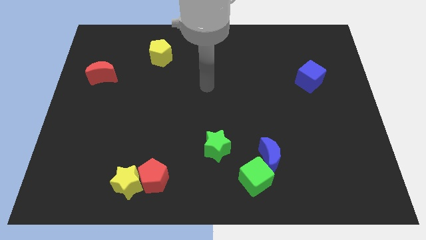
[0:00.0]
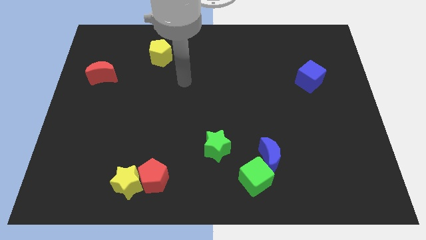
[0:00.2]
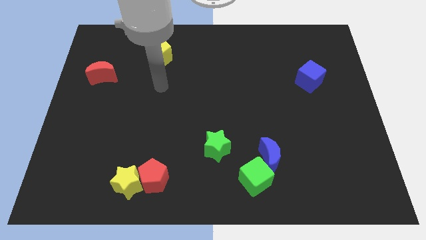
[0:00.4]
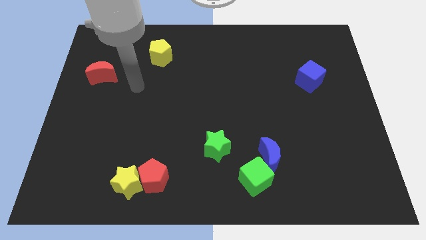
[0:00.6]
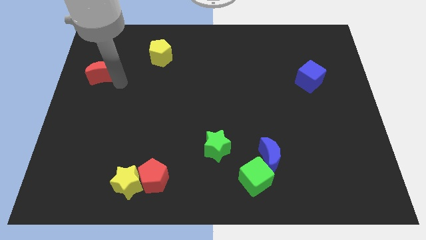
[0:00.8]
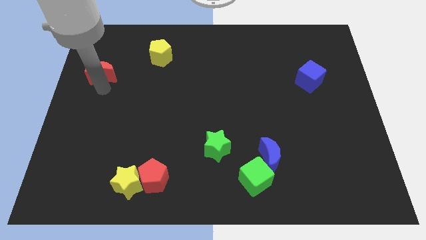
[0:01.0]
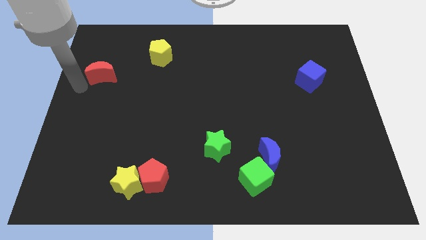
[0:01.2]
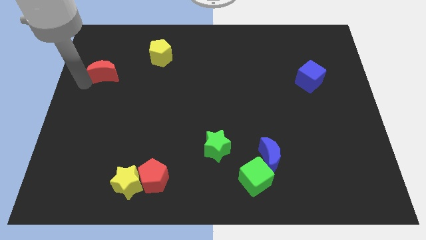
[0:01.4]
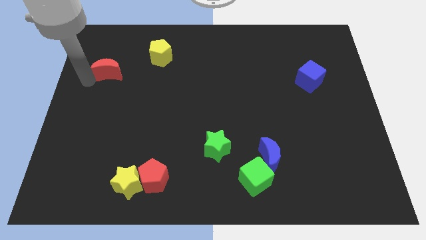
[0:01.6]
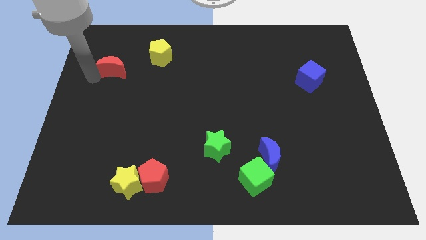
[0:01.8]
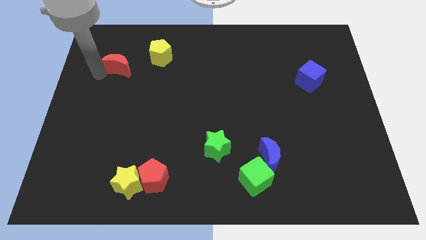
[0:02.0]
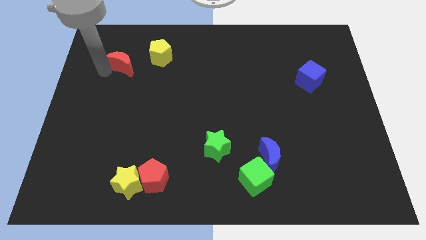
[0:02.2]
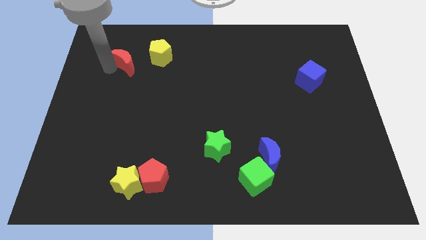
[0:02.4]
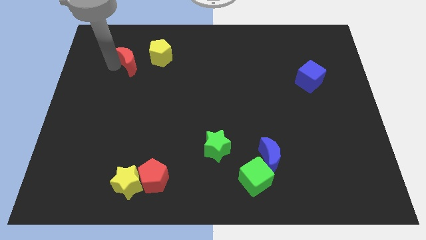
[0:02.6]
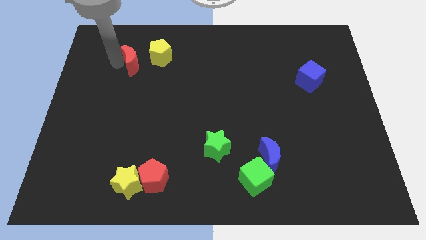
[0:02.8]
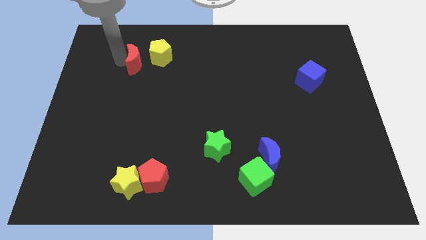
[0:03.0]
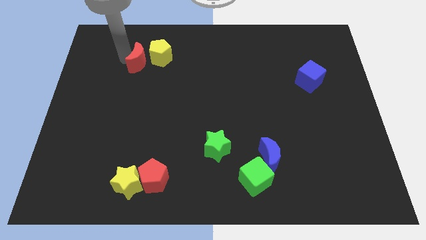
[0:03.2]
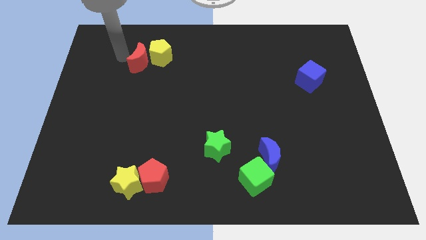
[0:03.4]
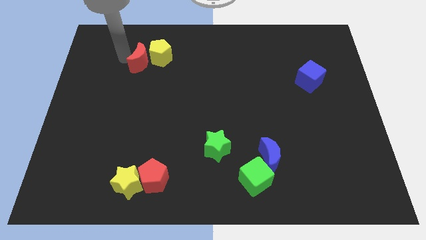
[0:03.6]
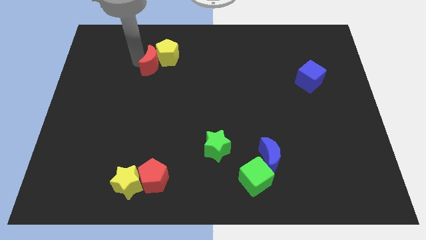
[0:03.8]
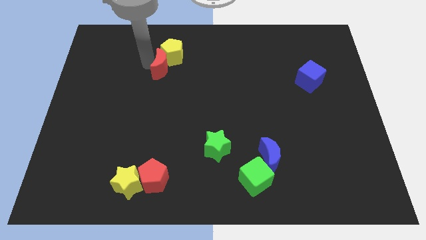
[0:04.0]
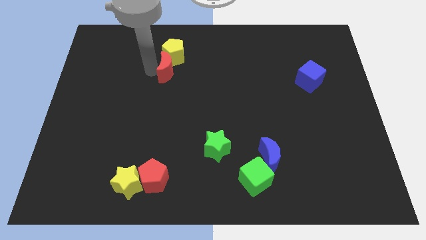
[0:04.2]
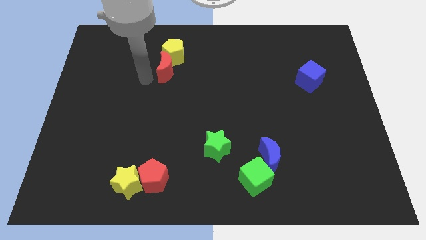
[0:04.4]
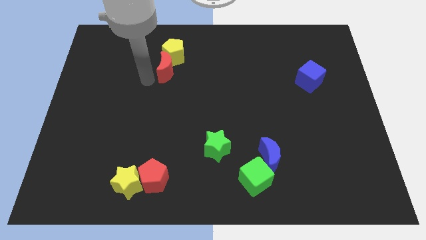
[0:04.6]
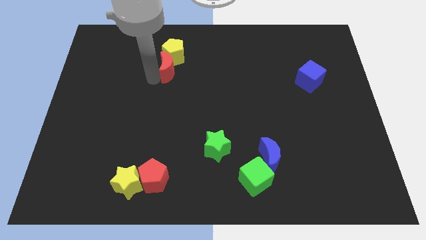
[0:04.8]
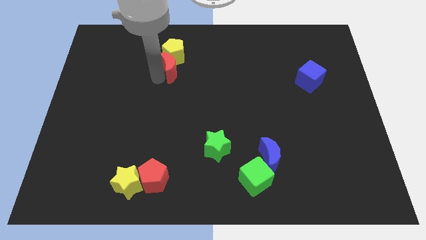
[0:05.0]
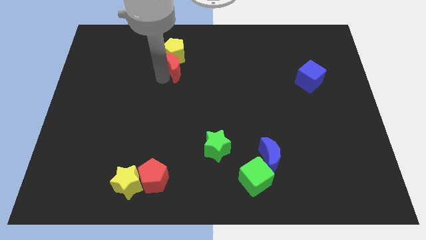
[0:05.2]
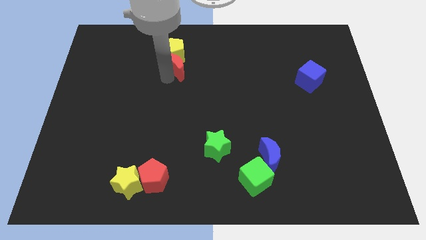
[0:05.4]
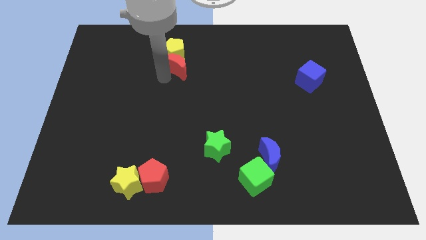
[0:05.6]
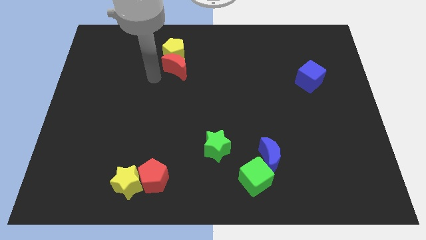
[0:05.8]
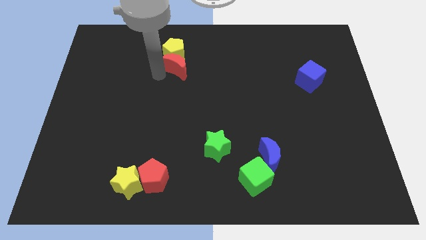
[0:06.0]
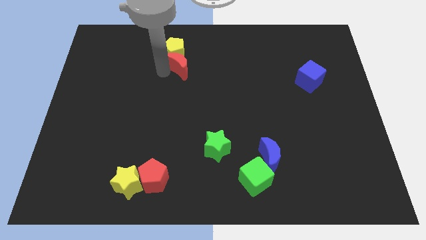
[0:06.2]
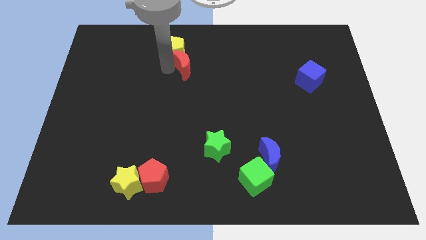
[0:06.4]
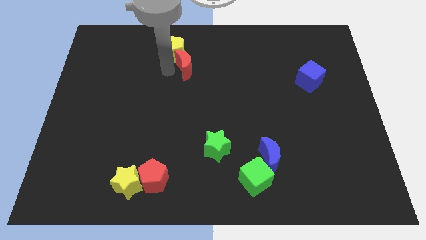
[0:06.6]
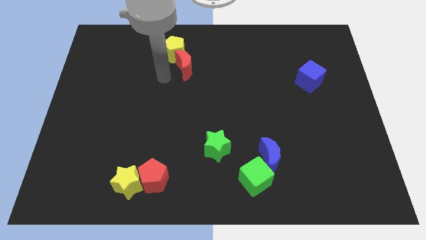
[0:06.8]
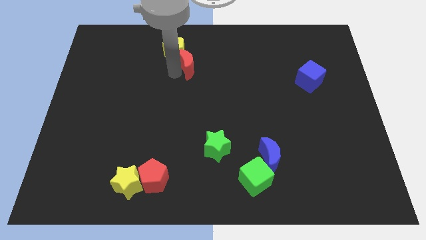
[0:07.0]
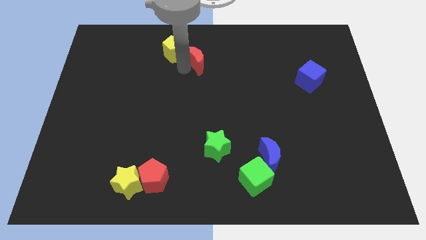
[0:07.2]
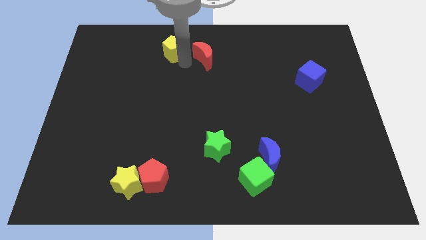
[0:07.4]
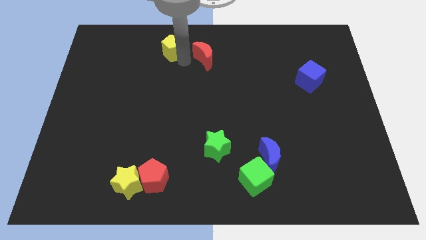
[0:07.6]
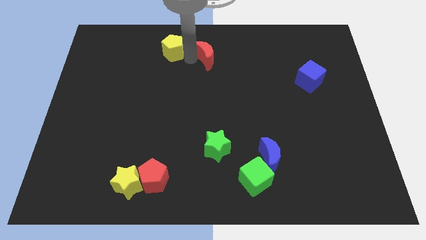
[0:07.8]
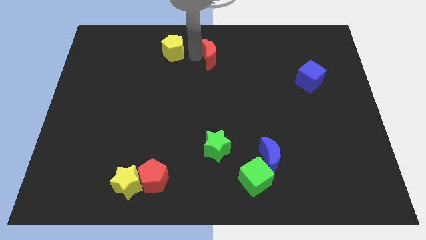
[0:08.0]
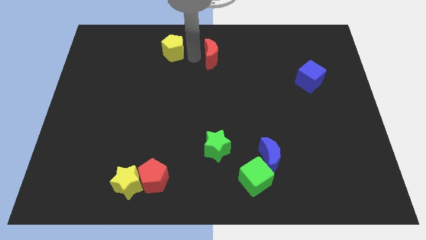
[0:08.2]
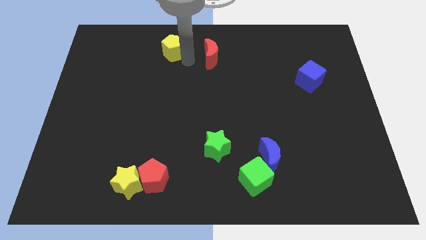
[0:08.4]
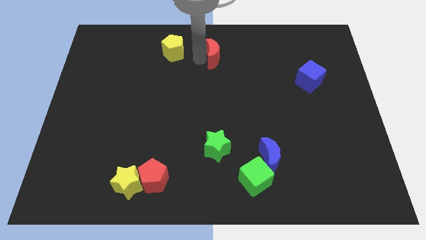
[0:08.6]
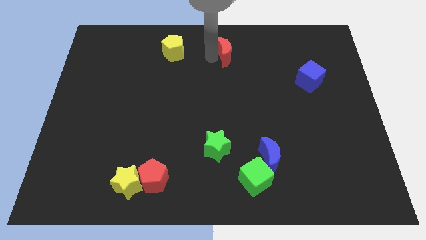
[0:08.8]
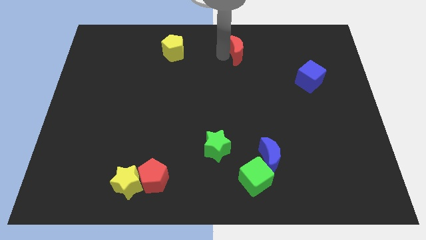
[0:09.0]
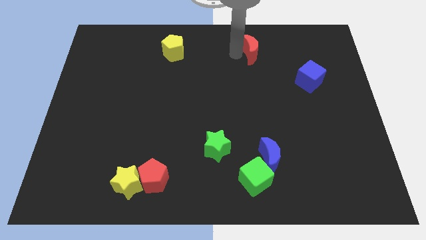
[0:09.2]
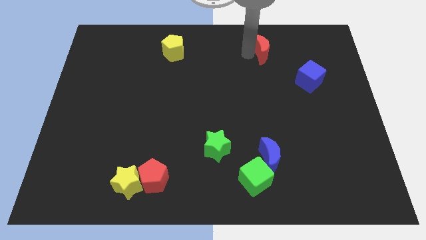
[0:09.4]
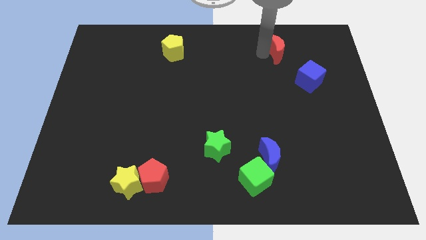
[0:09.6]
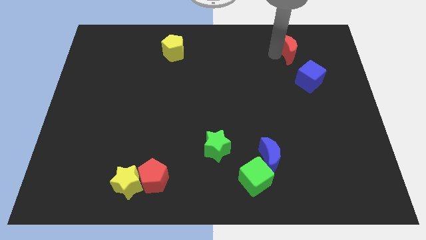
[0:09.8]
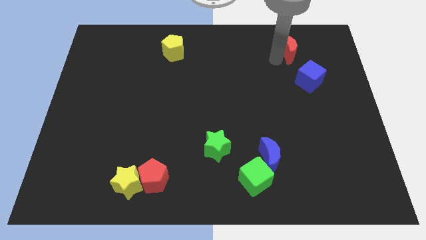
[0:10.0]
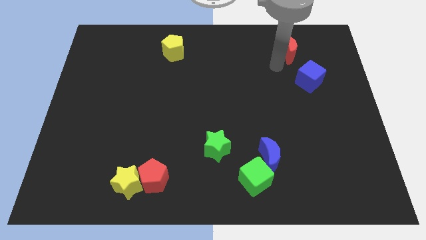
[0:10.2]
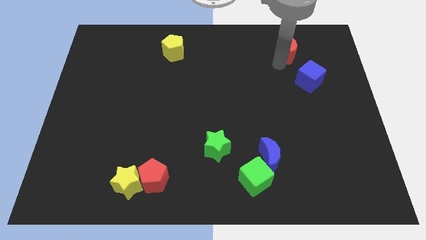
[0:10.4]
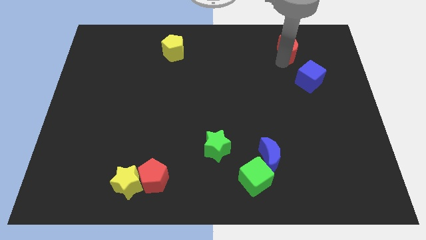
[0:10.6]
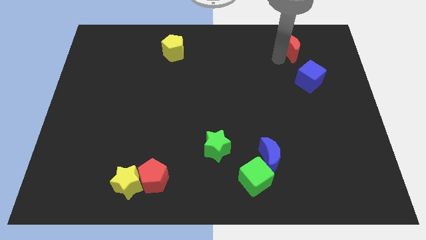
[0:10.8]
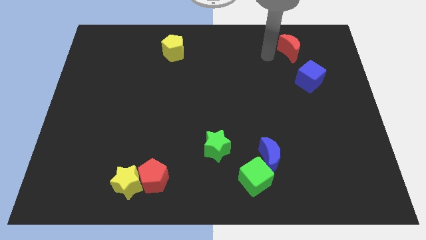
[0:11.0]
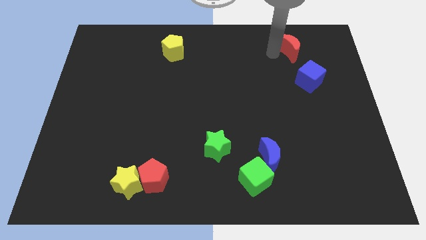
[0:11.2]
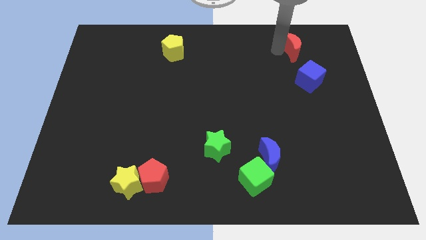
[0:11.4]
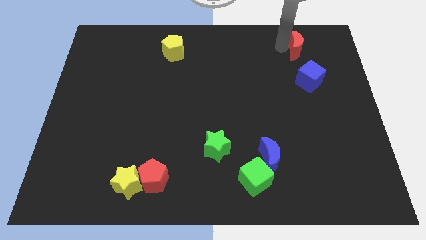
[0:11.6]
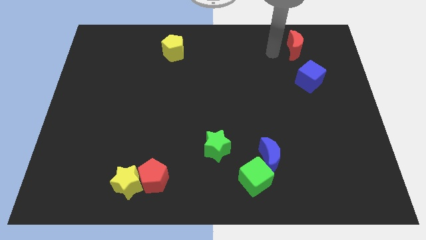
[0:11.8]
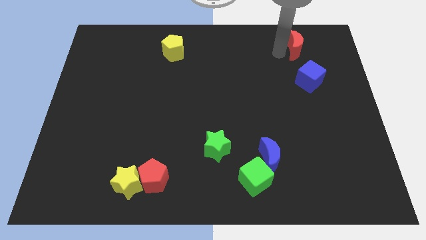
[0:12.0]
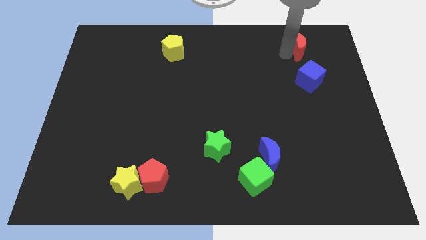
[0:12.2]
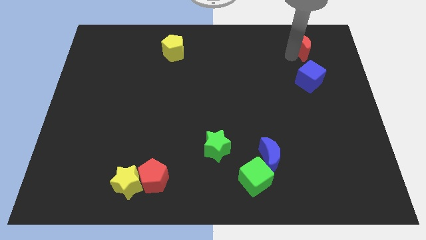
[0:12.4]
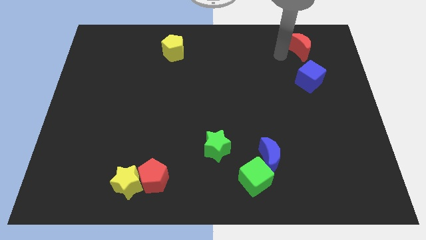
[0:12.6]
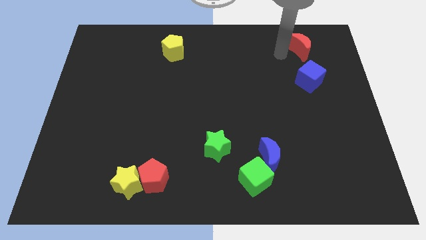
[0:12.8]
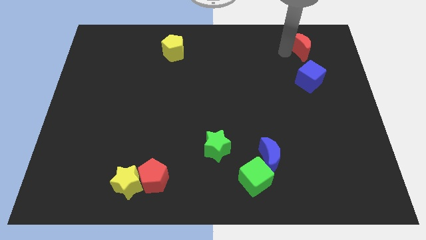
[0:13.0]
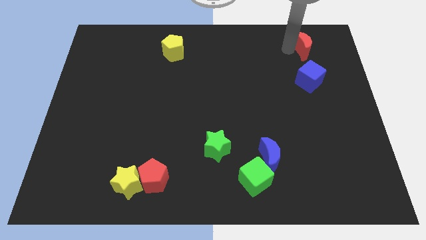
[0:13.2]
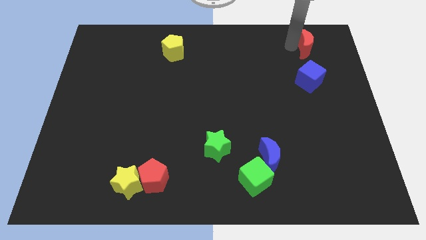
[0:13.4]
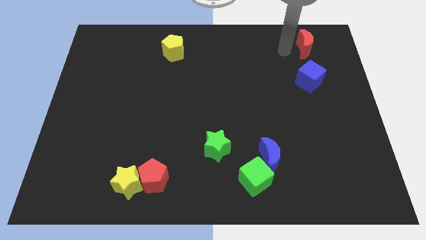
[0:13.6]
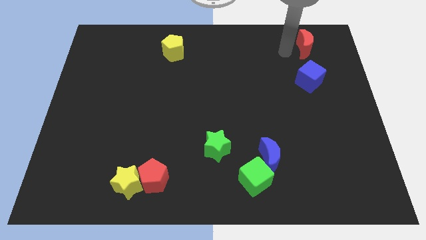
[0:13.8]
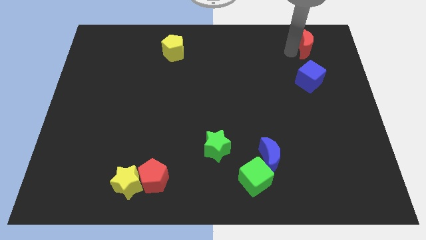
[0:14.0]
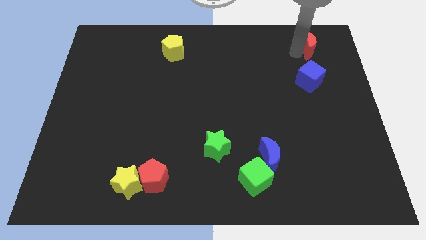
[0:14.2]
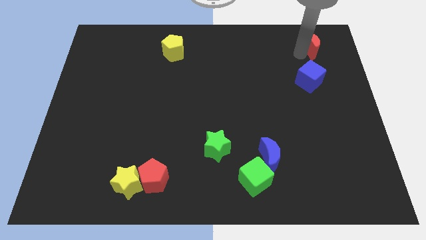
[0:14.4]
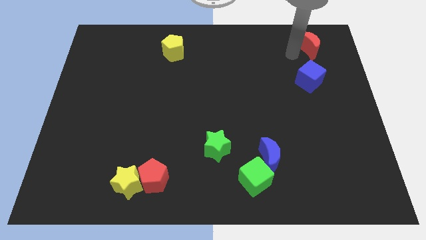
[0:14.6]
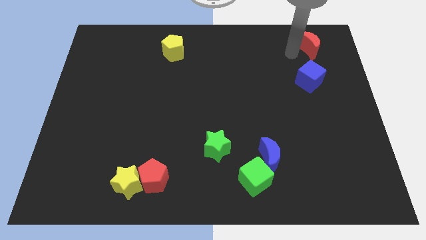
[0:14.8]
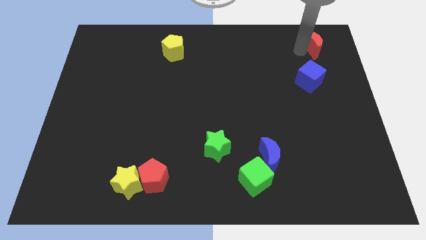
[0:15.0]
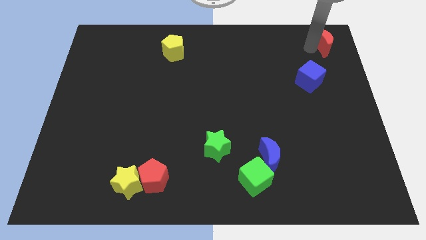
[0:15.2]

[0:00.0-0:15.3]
put the red moon to the top right corner

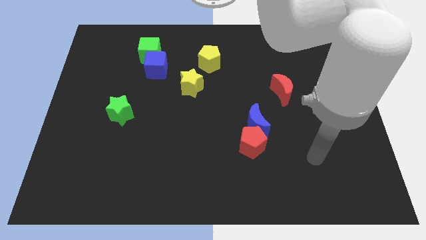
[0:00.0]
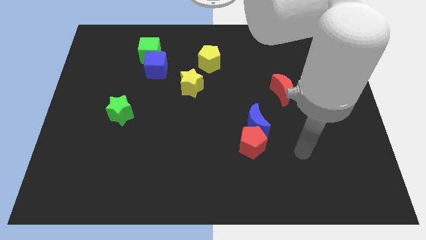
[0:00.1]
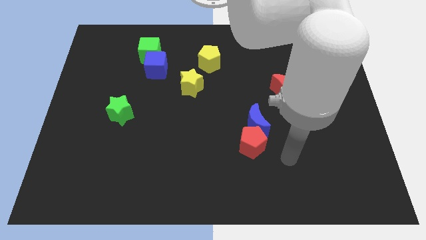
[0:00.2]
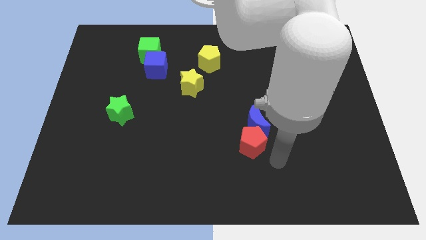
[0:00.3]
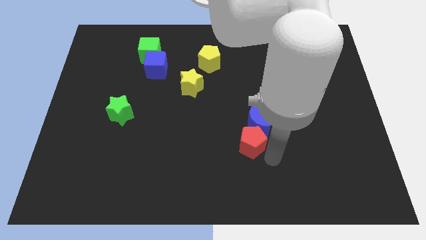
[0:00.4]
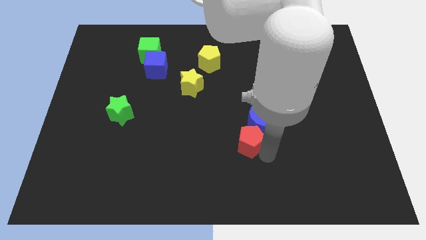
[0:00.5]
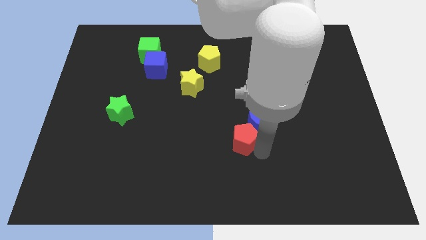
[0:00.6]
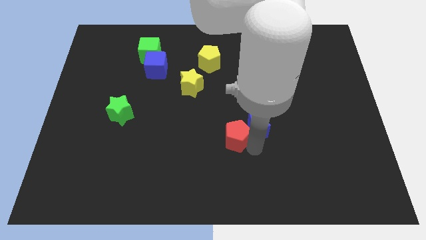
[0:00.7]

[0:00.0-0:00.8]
slide the red pentagon to the middle
